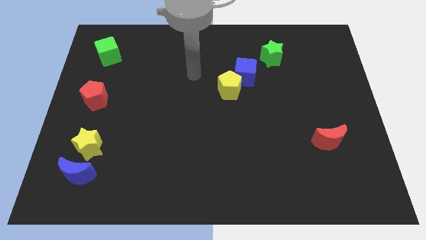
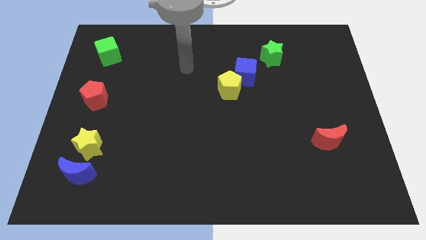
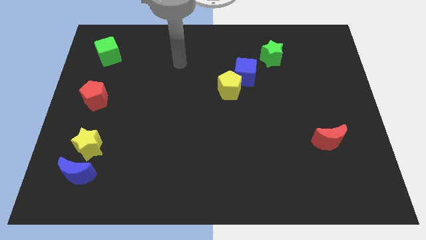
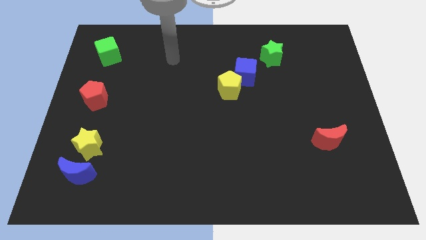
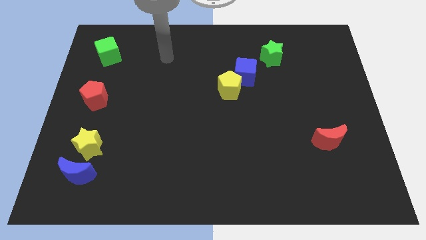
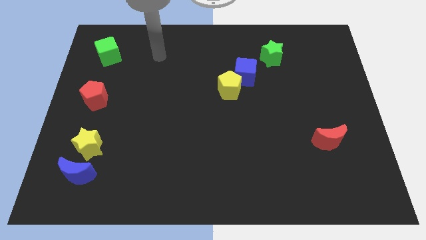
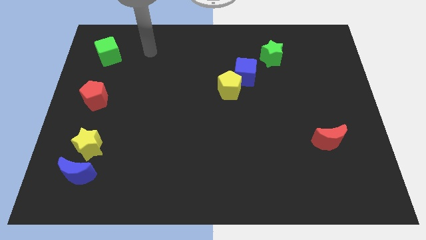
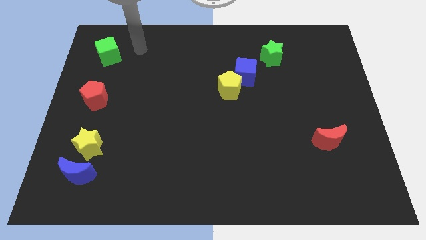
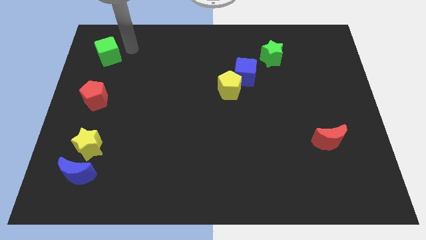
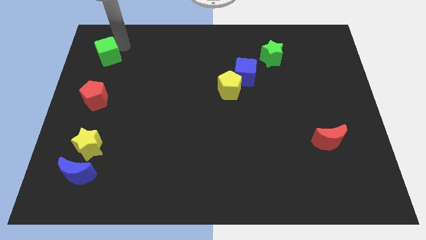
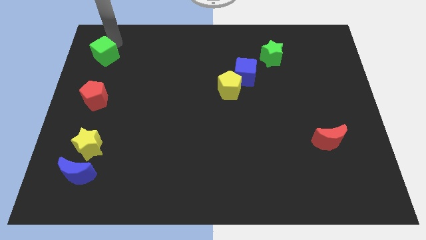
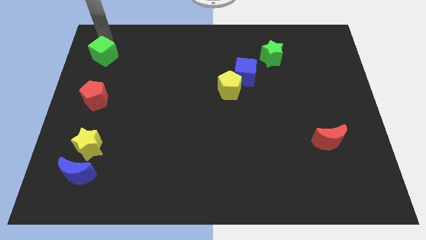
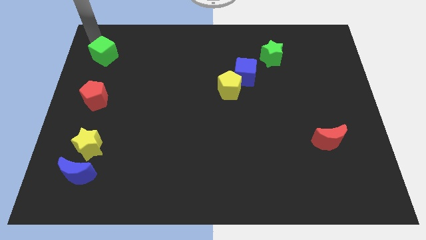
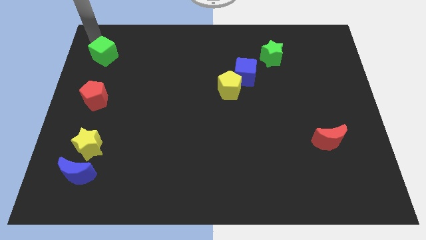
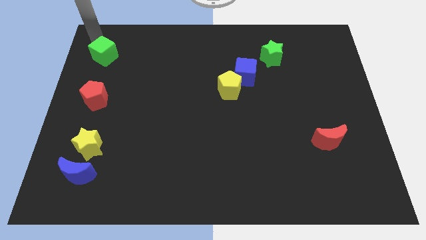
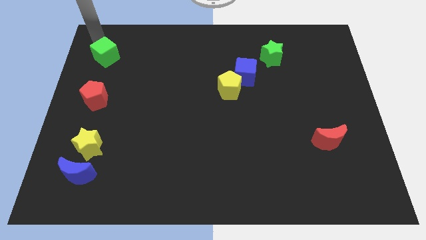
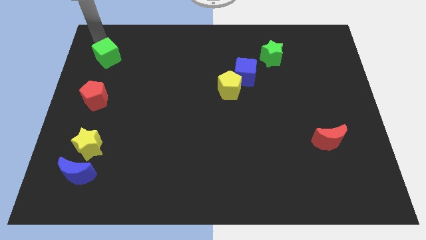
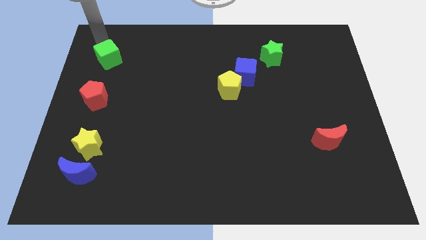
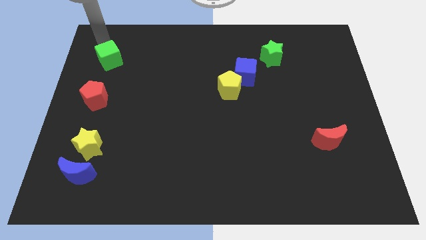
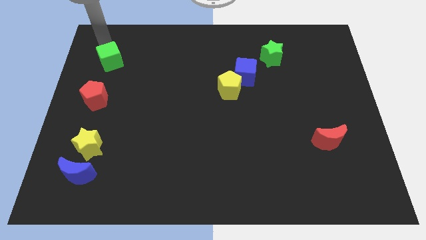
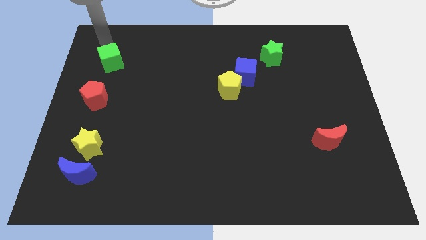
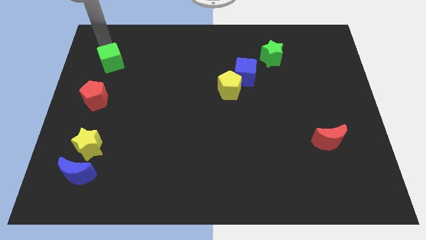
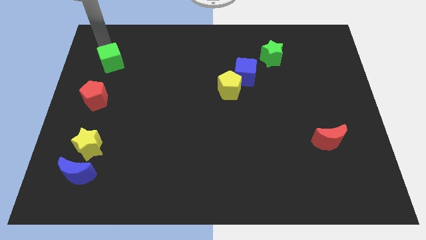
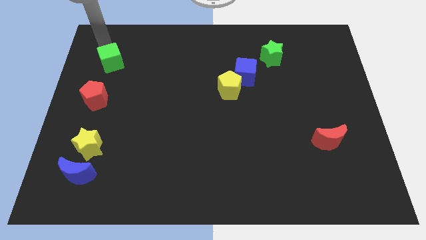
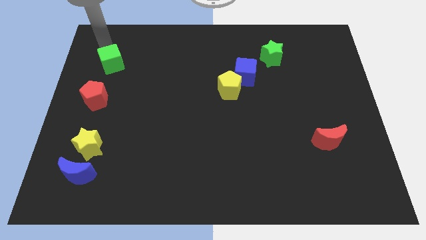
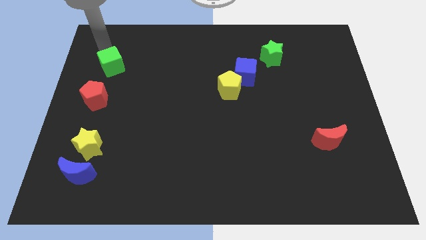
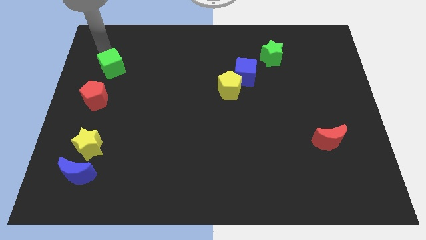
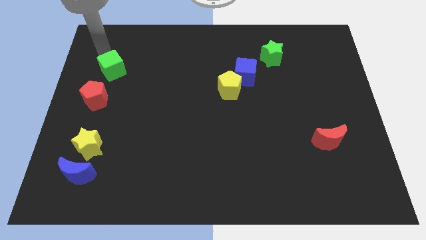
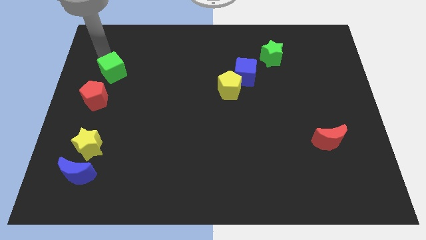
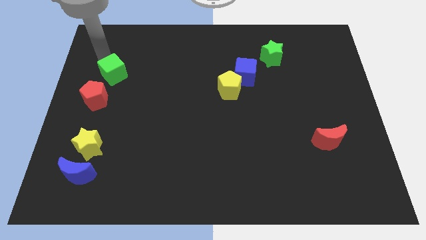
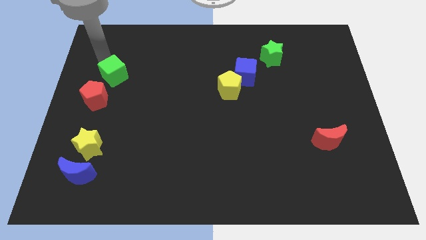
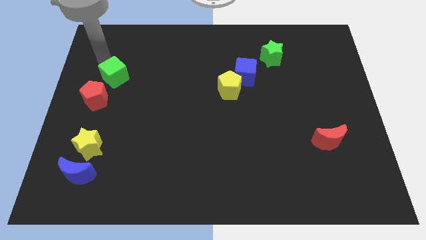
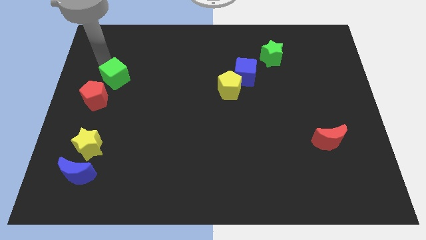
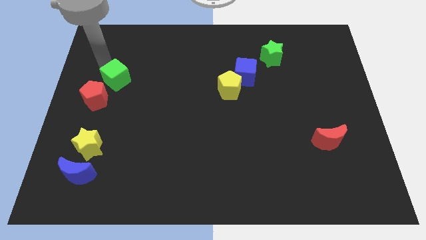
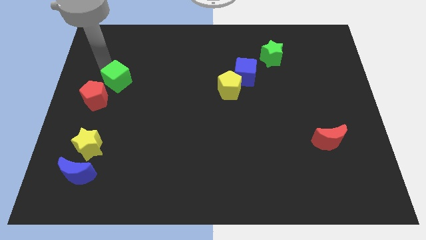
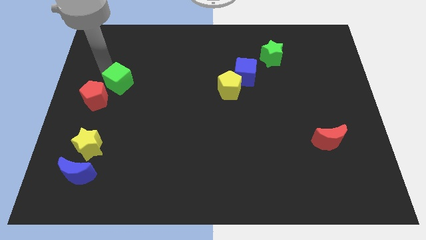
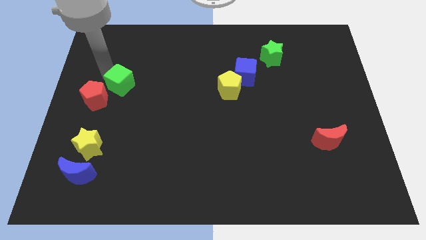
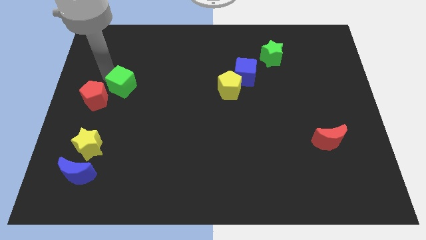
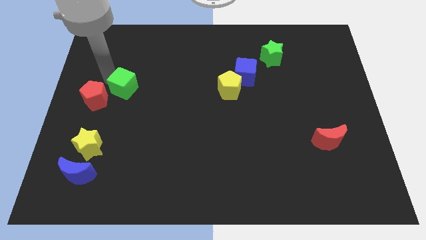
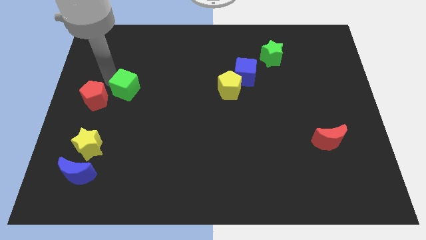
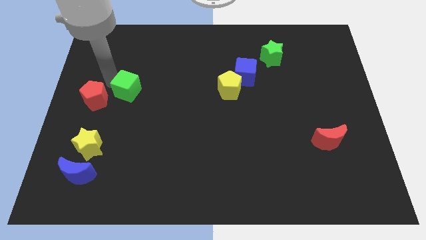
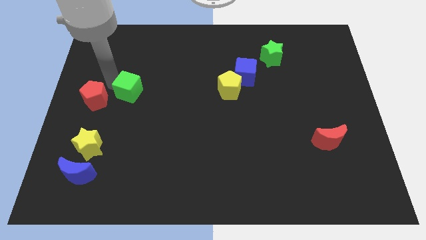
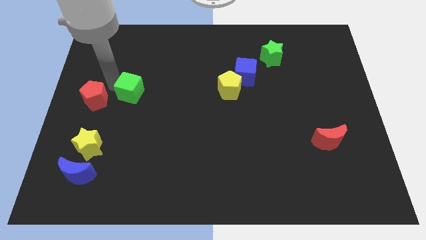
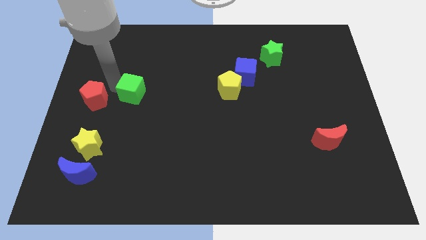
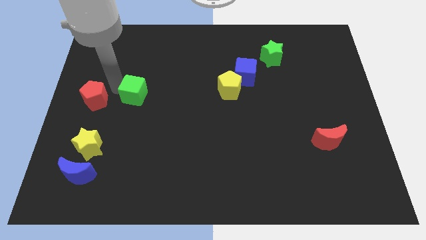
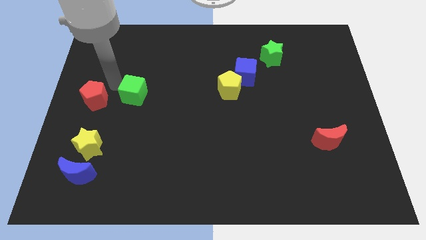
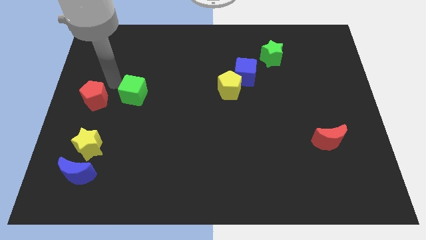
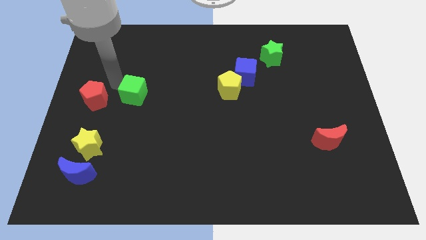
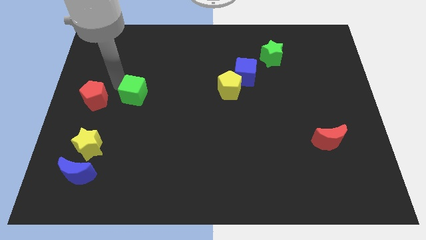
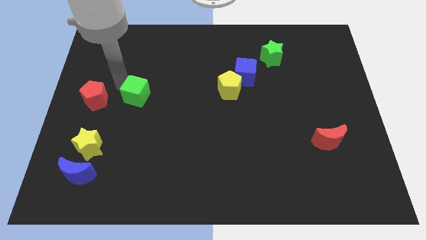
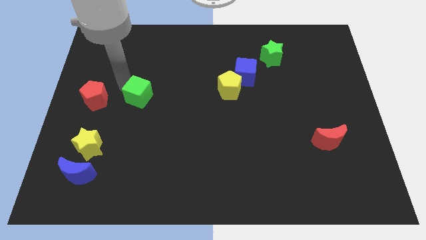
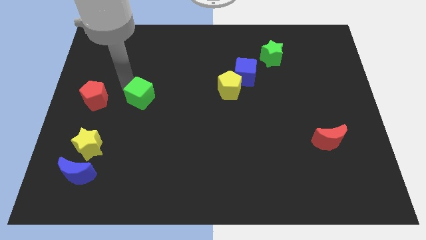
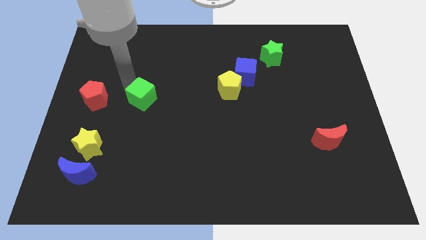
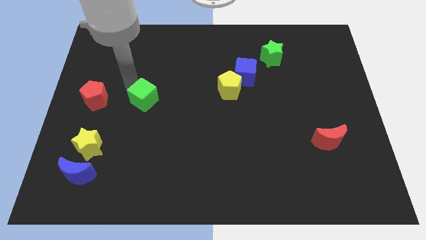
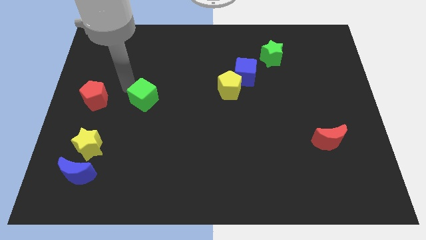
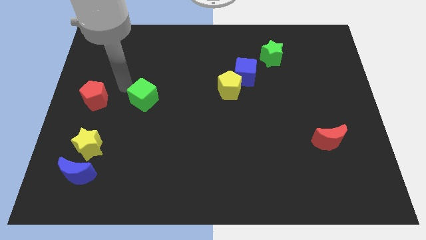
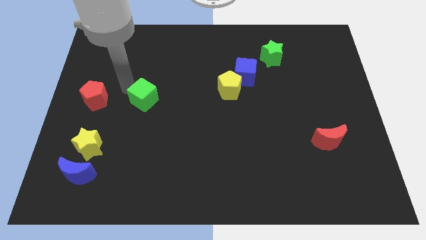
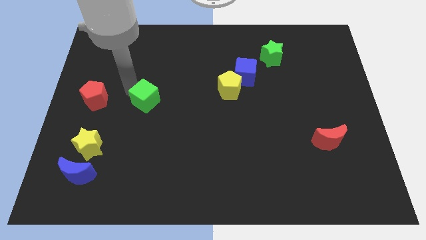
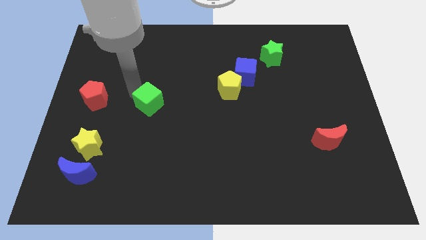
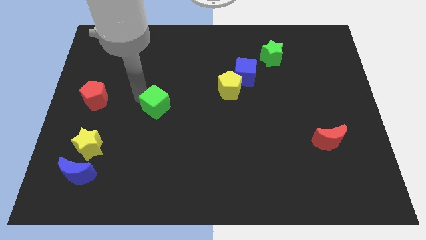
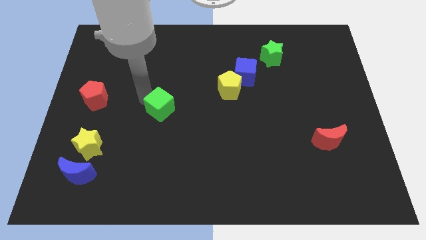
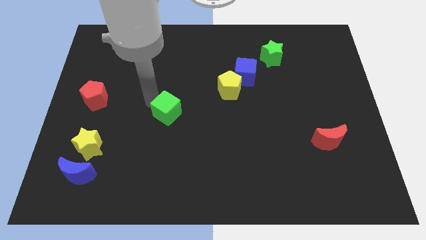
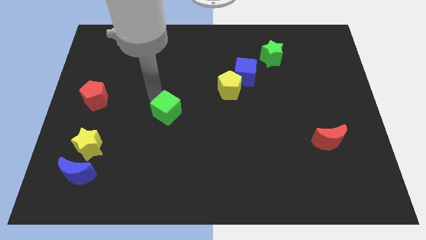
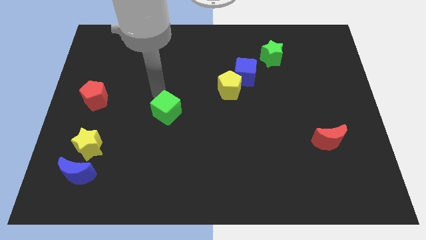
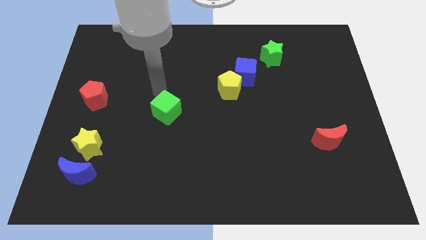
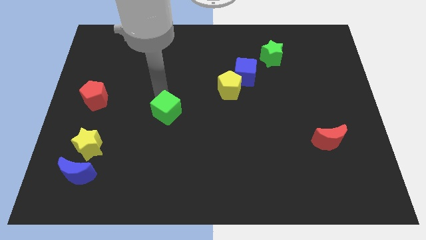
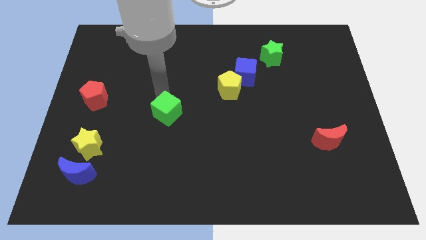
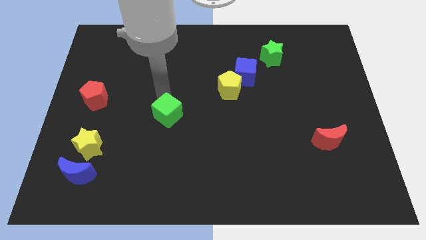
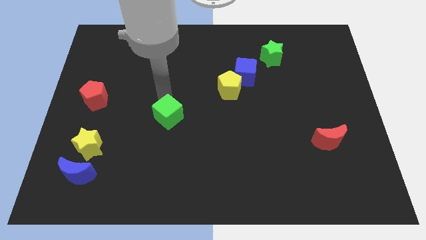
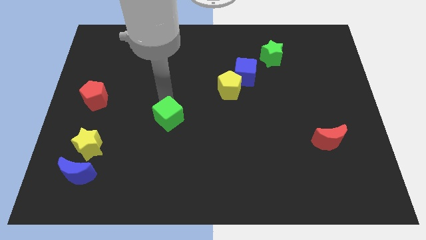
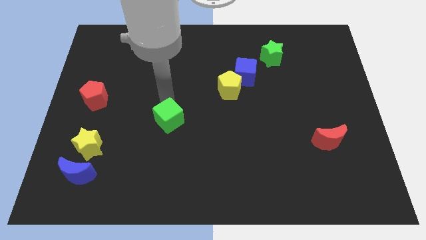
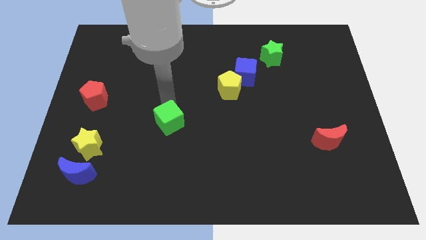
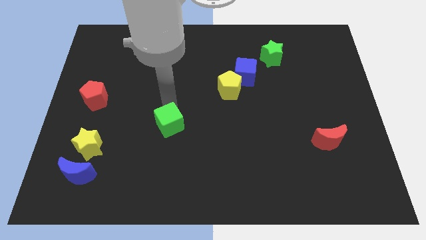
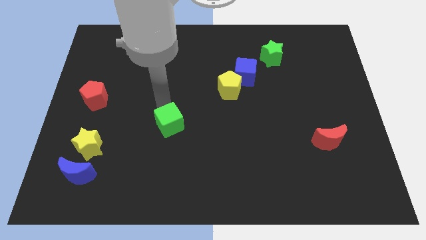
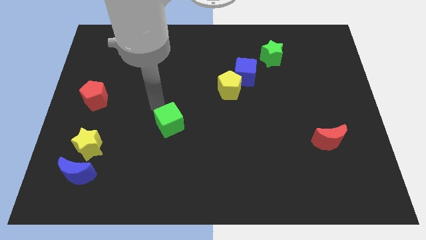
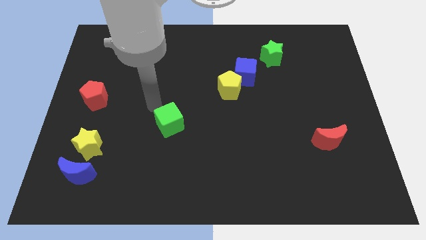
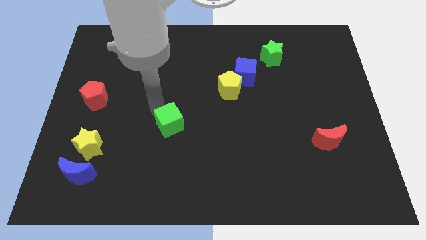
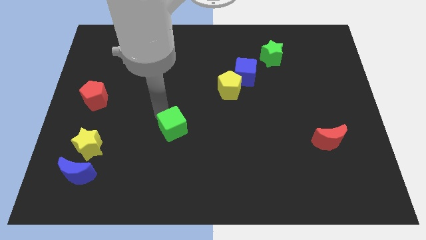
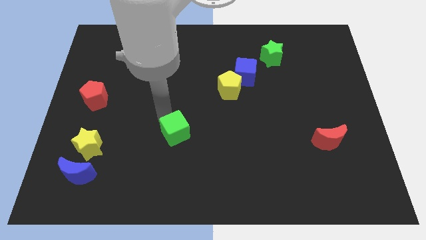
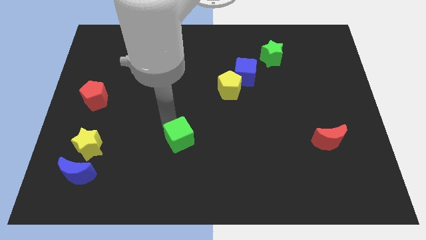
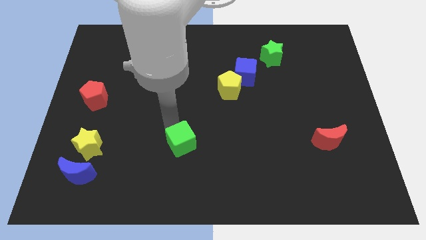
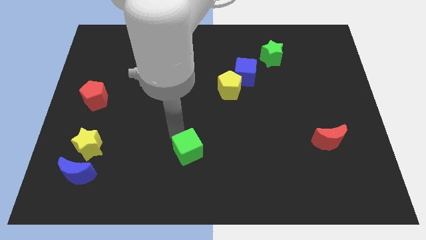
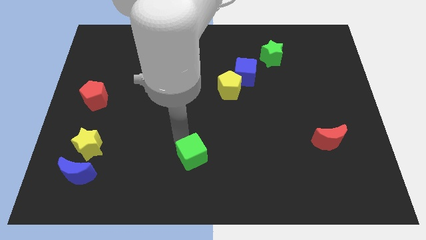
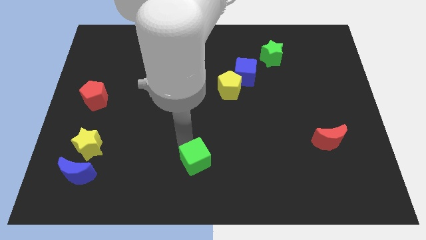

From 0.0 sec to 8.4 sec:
put the green cube to the bottom side
